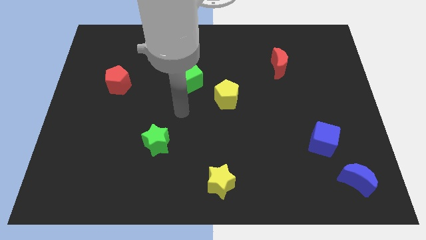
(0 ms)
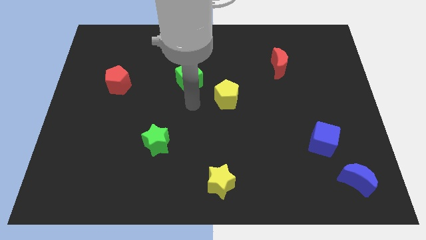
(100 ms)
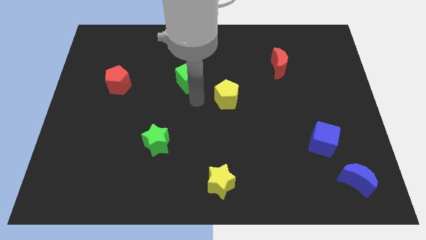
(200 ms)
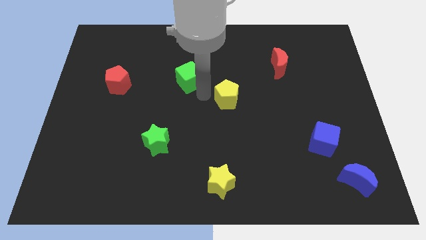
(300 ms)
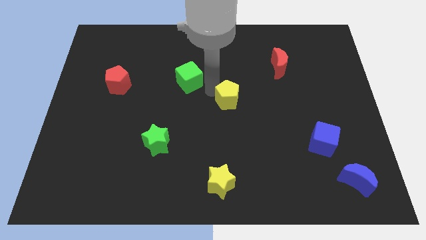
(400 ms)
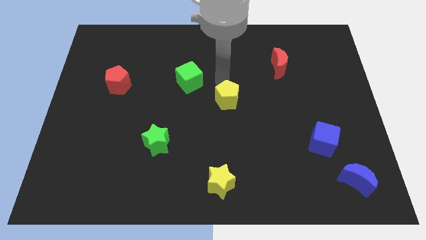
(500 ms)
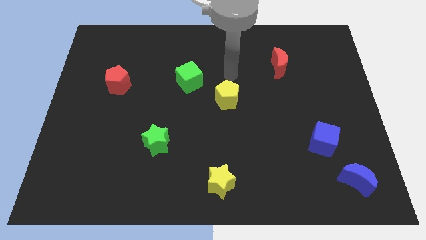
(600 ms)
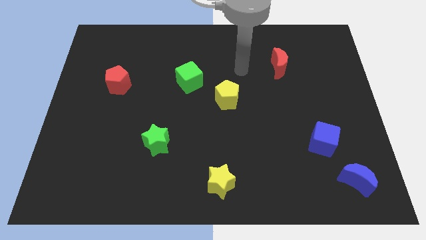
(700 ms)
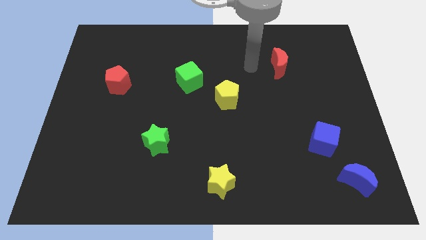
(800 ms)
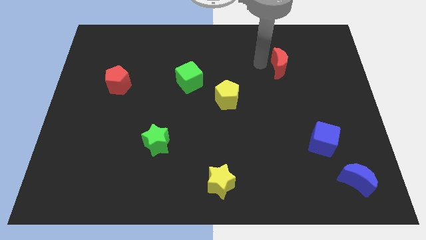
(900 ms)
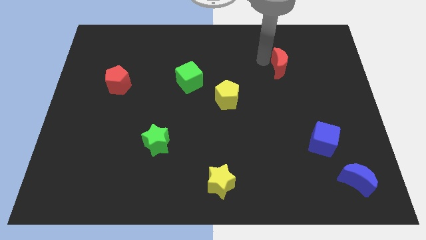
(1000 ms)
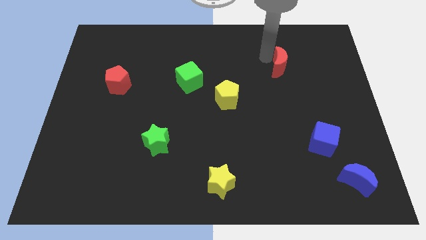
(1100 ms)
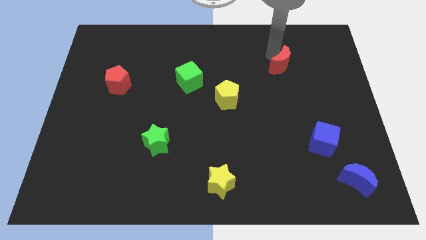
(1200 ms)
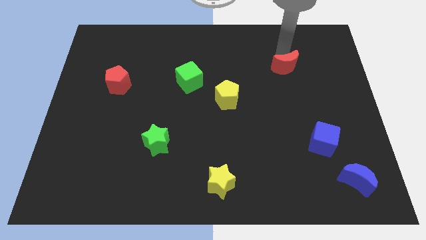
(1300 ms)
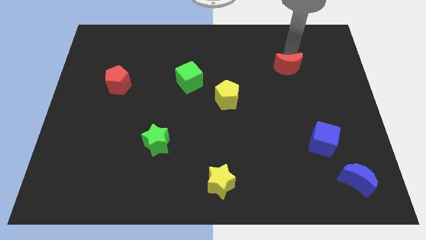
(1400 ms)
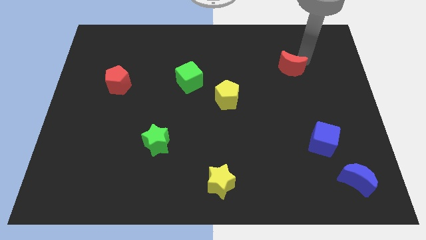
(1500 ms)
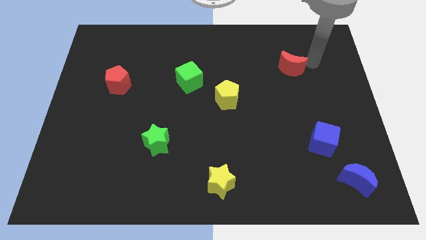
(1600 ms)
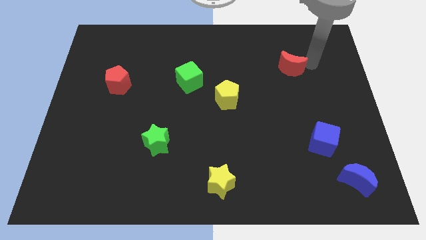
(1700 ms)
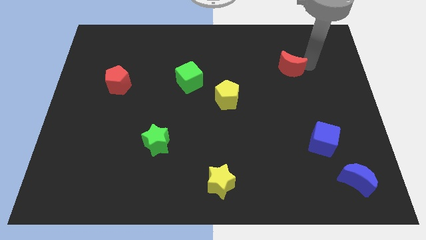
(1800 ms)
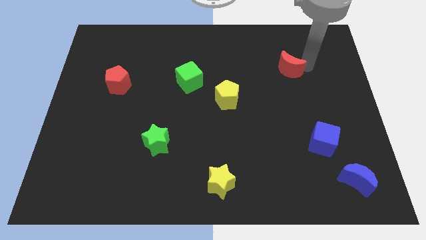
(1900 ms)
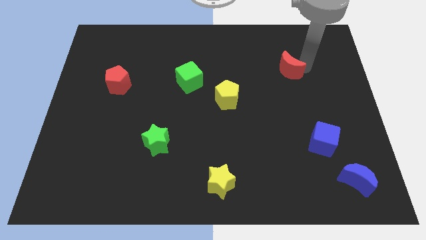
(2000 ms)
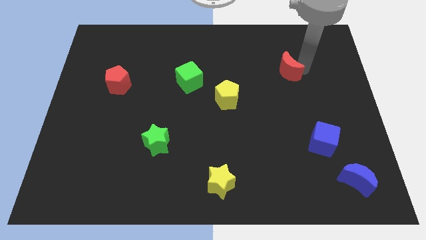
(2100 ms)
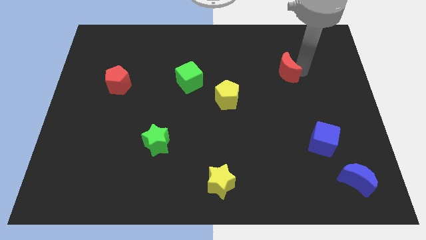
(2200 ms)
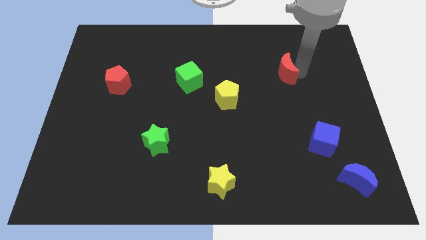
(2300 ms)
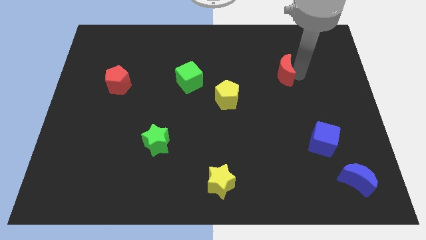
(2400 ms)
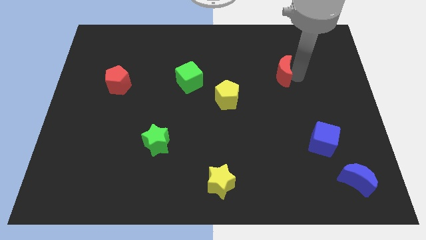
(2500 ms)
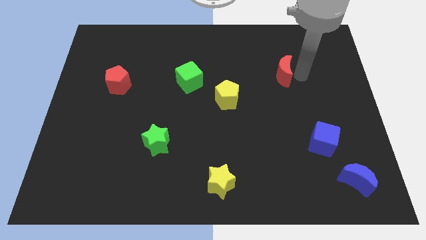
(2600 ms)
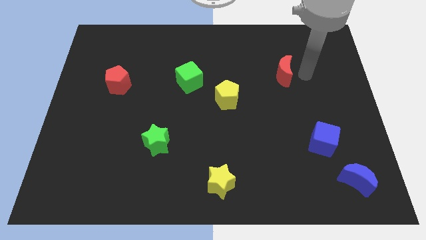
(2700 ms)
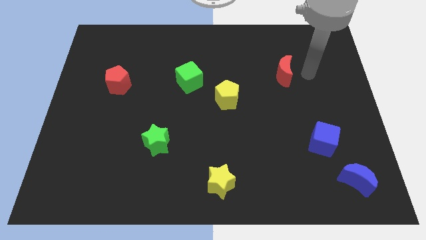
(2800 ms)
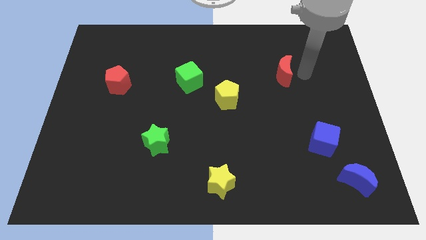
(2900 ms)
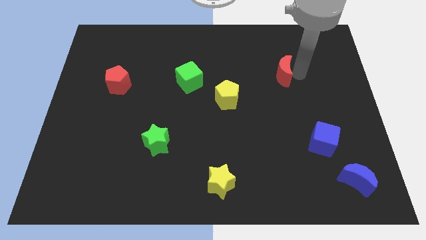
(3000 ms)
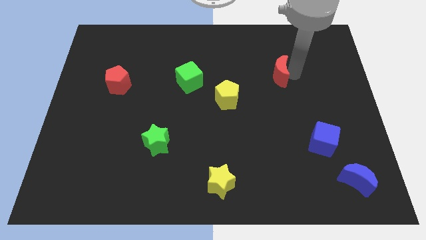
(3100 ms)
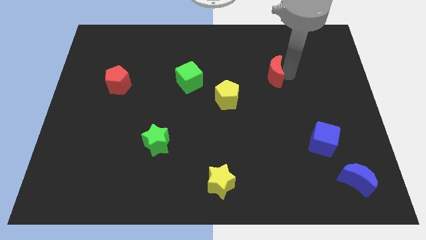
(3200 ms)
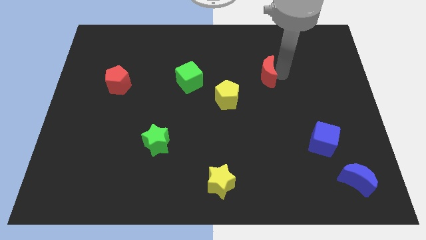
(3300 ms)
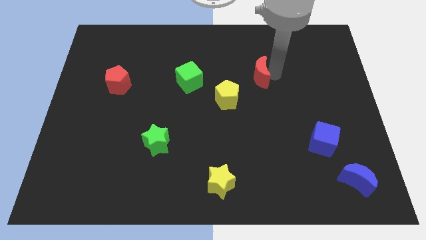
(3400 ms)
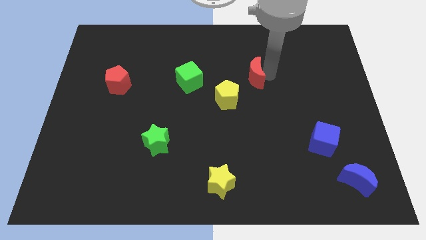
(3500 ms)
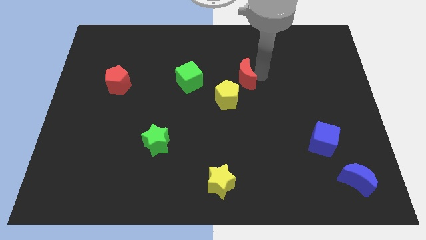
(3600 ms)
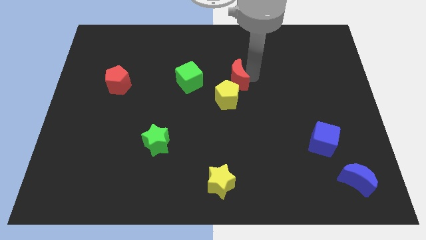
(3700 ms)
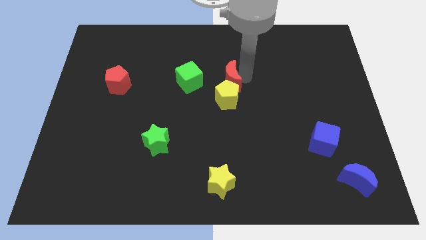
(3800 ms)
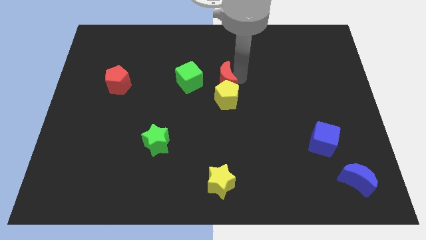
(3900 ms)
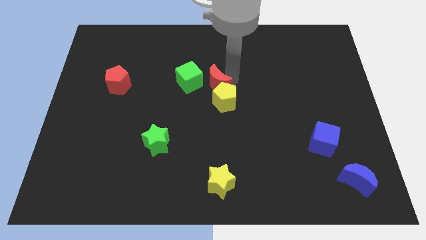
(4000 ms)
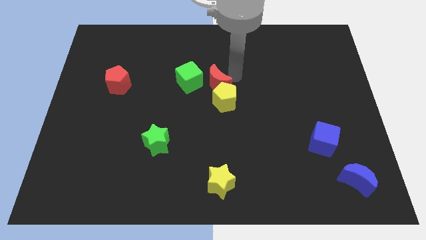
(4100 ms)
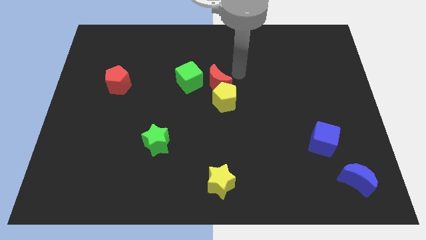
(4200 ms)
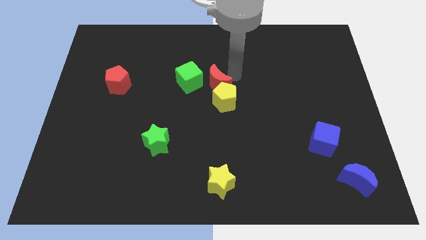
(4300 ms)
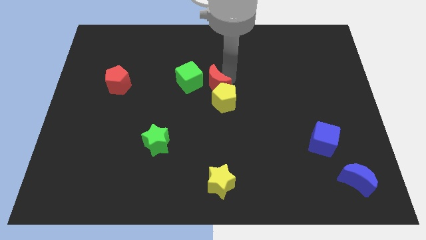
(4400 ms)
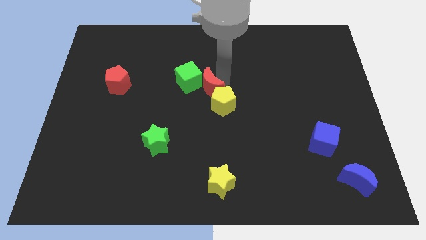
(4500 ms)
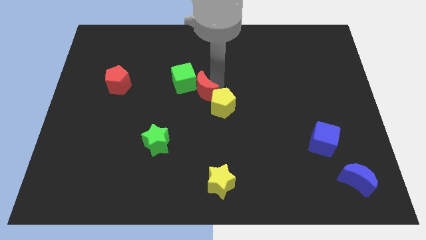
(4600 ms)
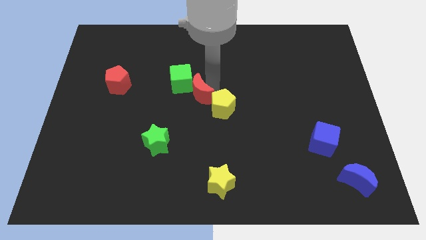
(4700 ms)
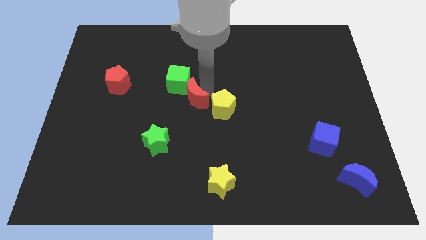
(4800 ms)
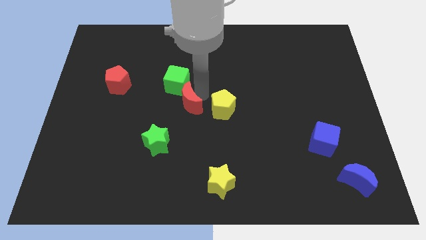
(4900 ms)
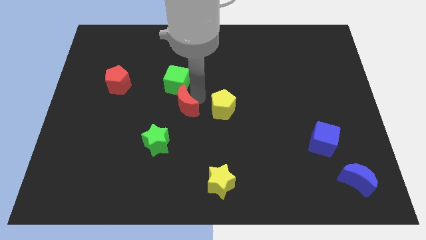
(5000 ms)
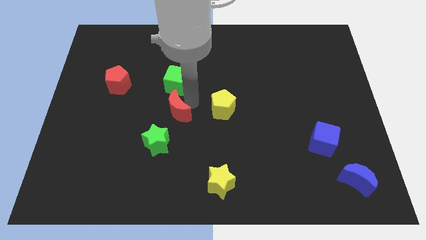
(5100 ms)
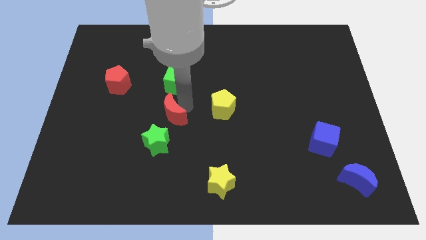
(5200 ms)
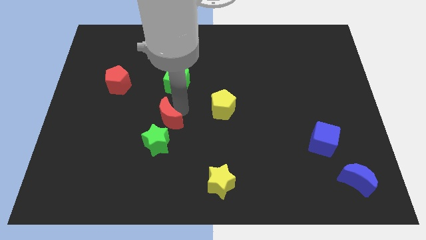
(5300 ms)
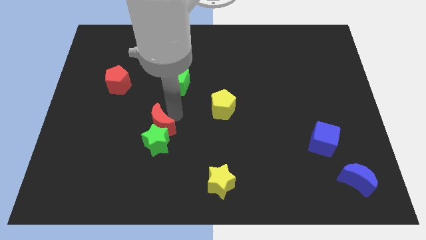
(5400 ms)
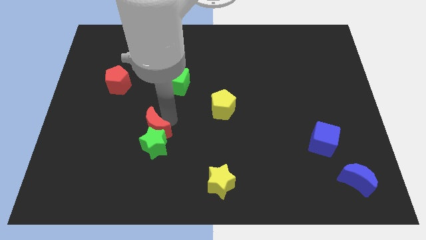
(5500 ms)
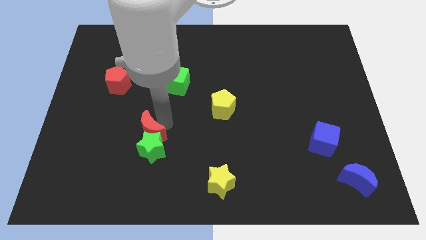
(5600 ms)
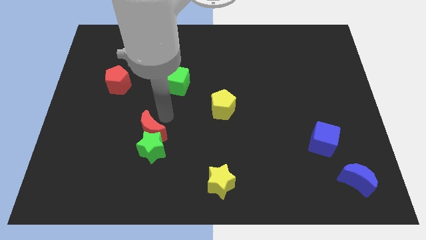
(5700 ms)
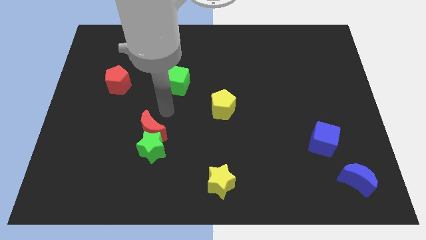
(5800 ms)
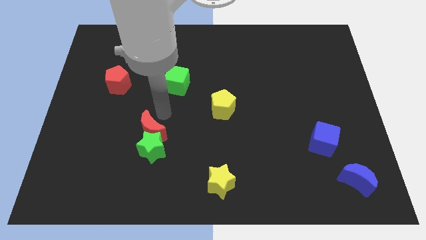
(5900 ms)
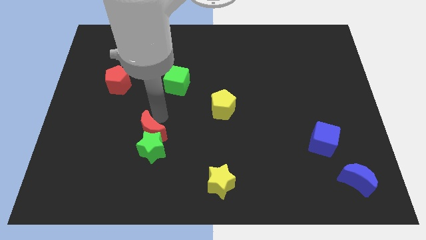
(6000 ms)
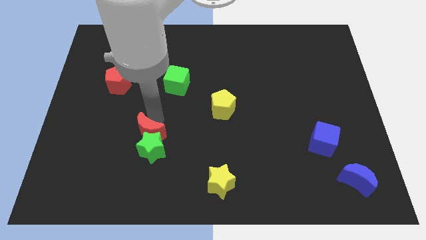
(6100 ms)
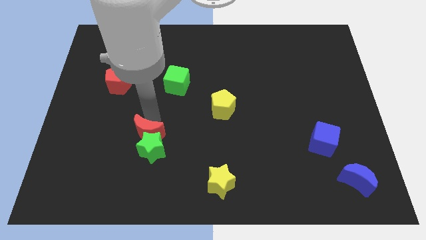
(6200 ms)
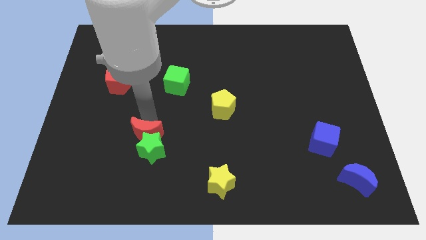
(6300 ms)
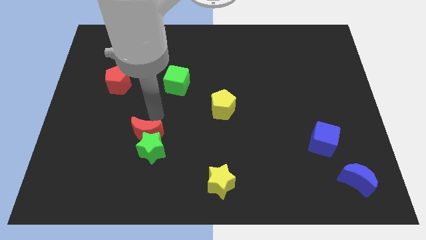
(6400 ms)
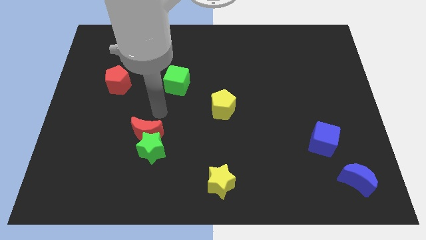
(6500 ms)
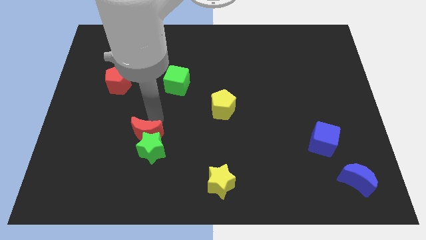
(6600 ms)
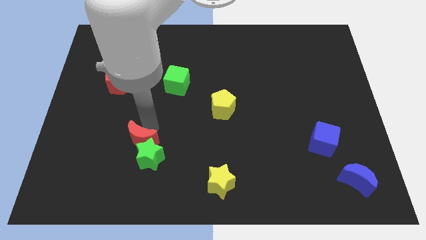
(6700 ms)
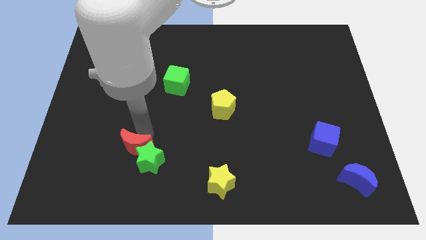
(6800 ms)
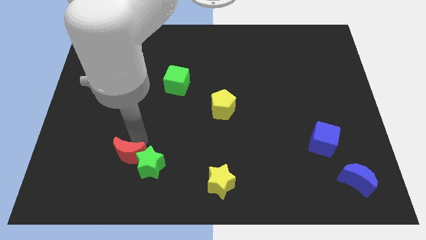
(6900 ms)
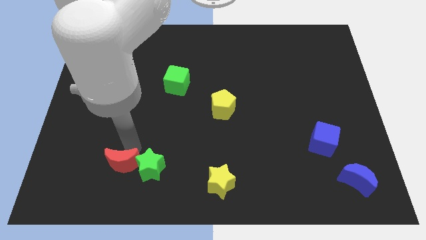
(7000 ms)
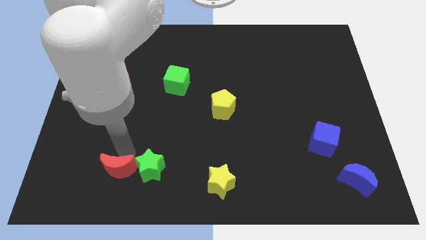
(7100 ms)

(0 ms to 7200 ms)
move the red moon to the bottom left side of the green star
